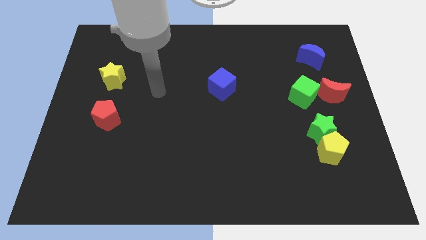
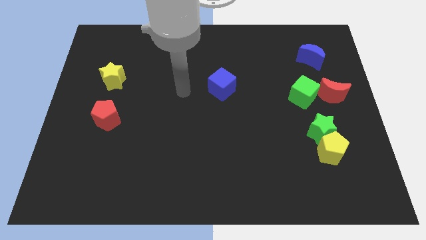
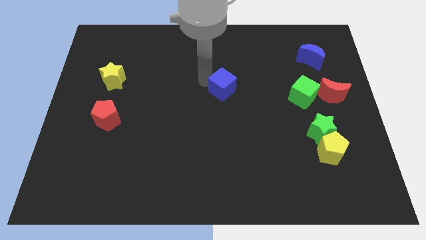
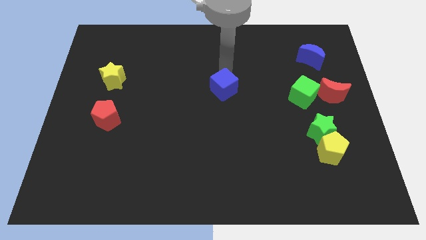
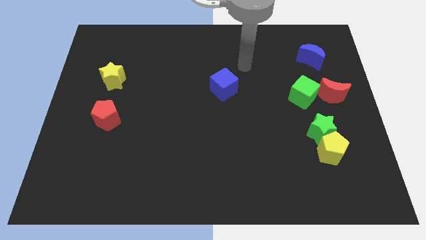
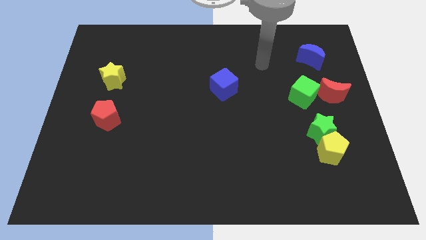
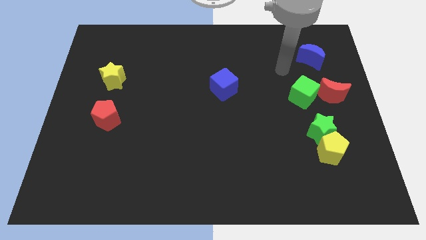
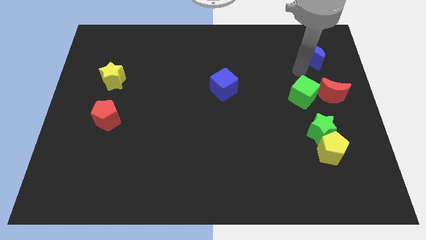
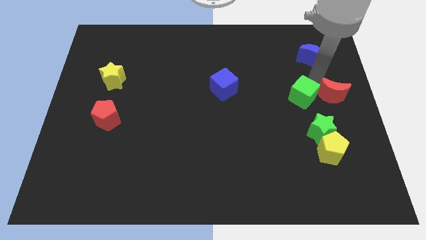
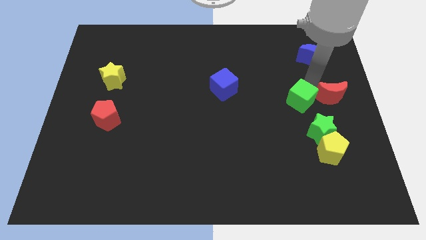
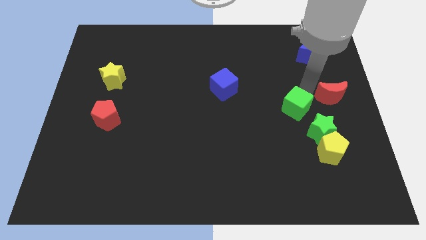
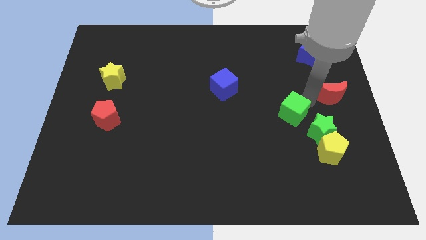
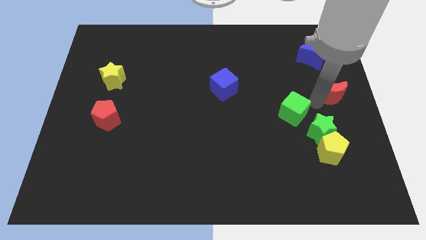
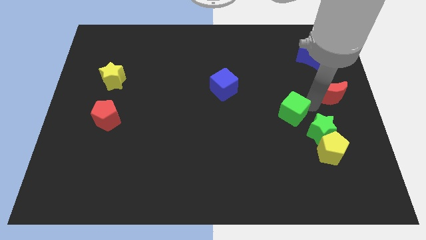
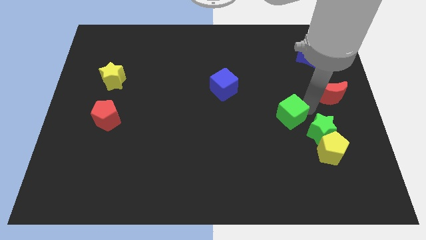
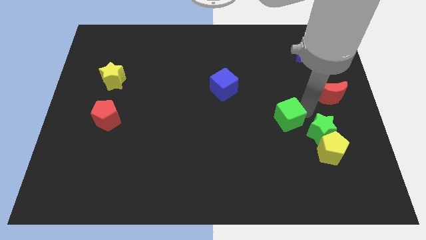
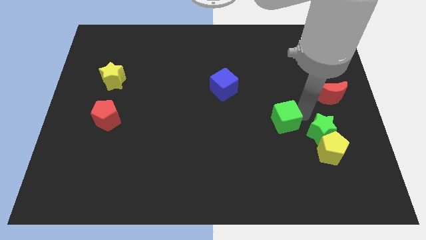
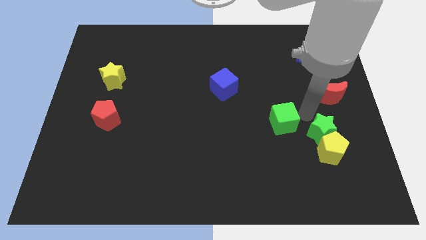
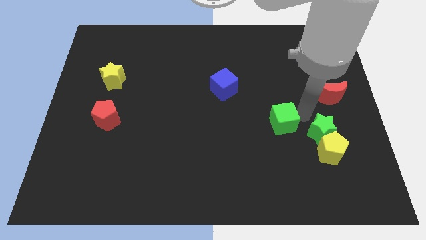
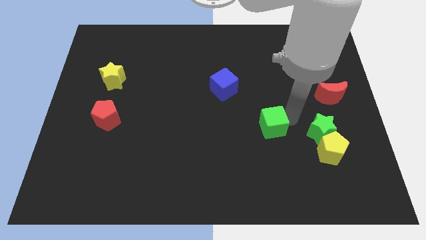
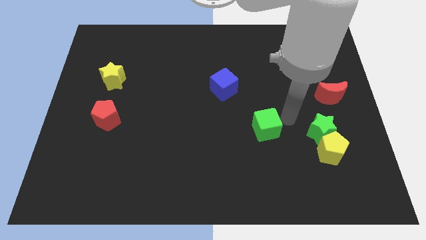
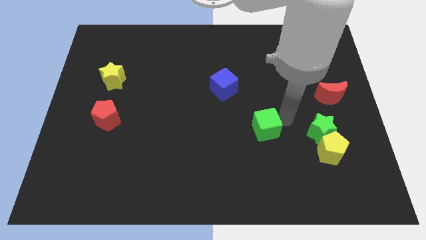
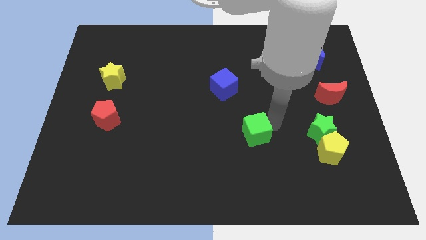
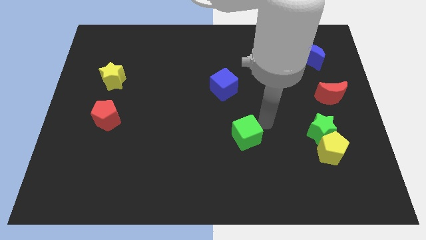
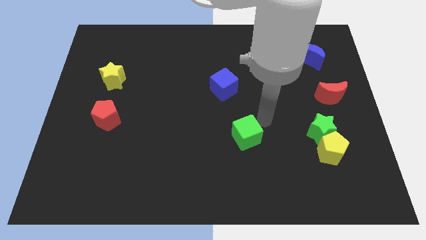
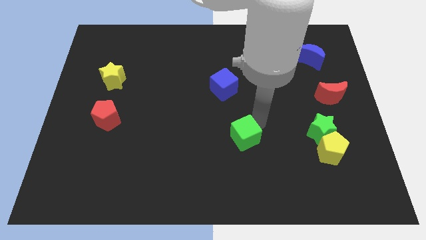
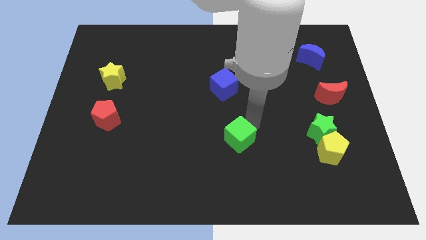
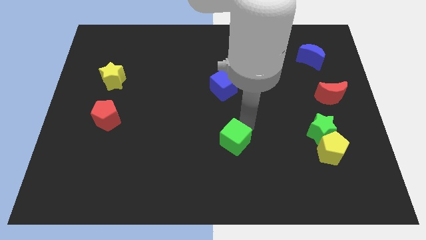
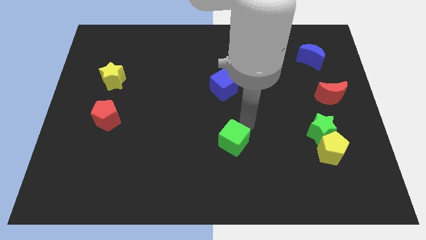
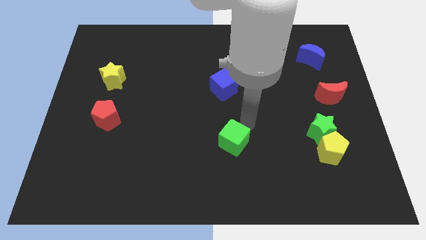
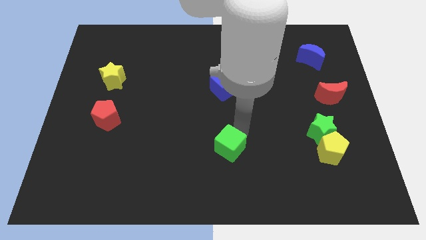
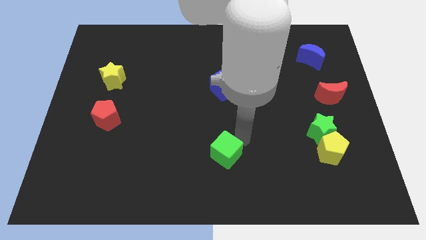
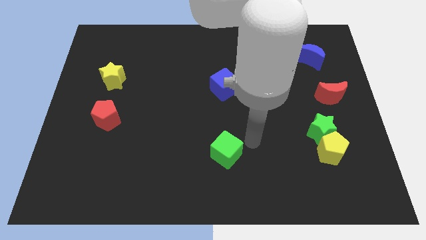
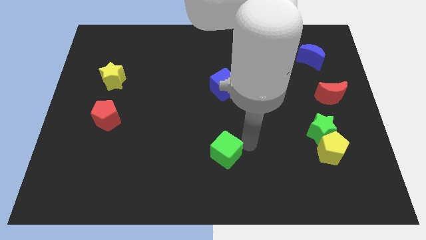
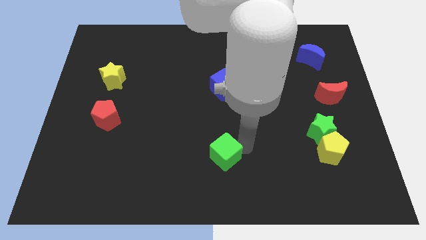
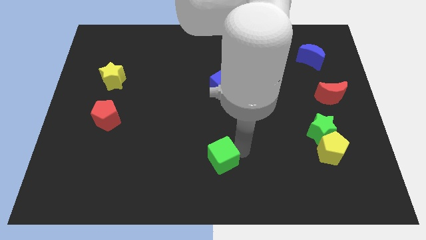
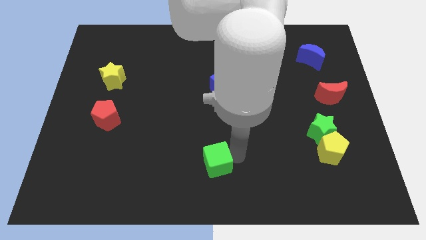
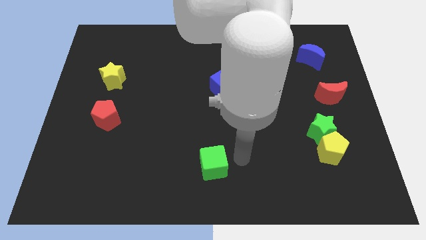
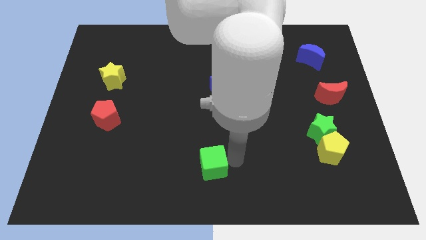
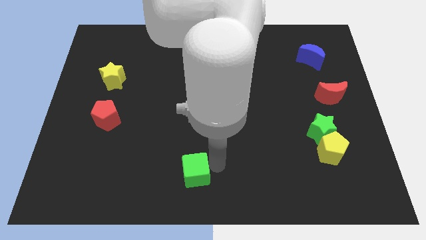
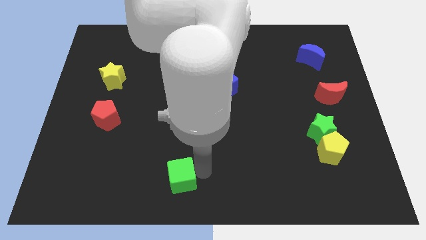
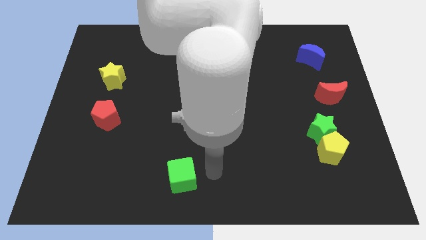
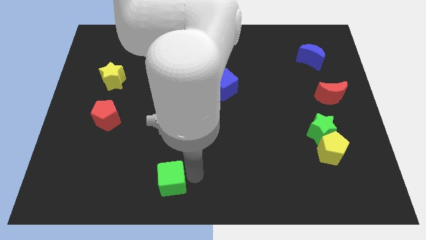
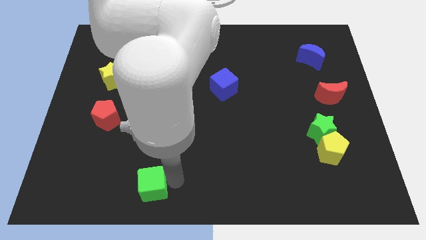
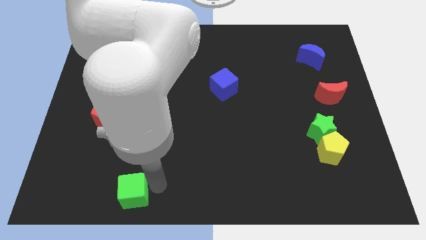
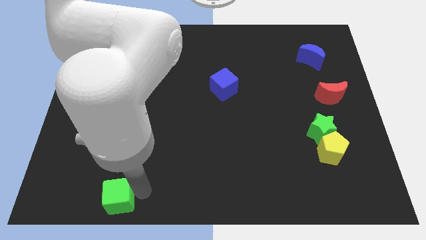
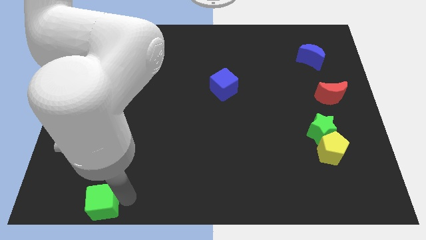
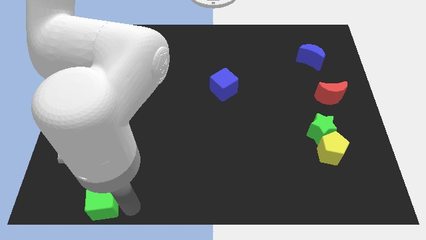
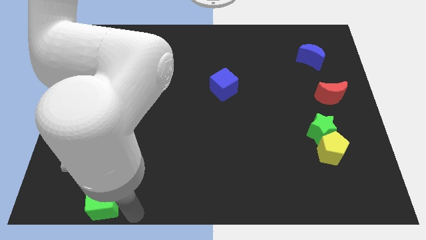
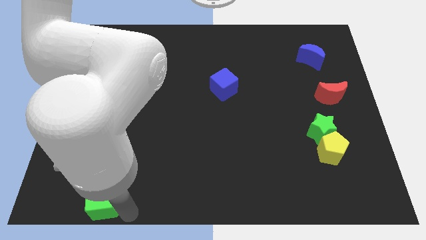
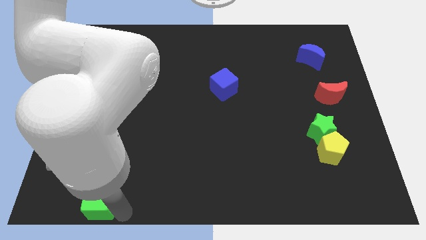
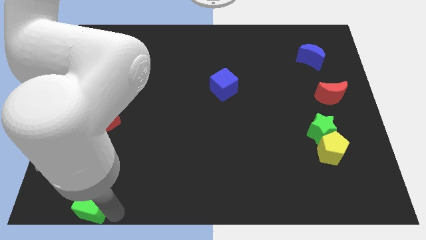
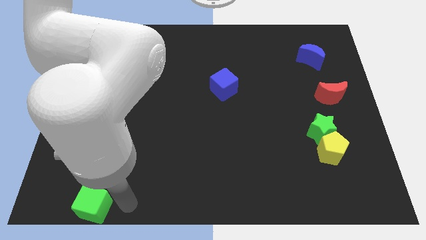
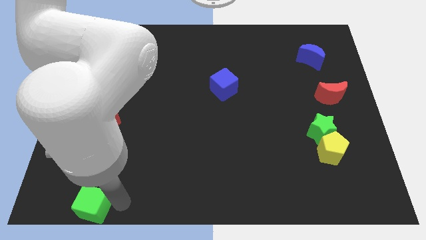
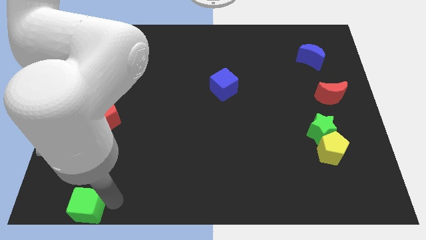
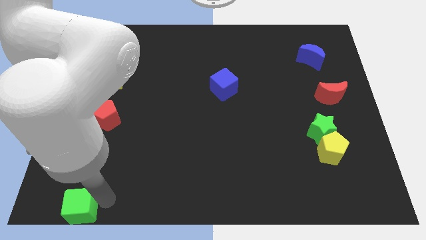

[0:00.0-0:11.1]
push the green cube to the bottom left corner

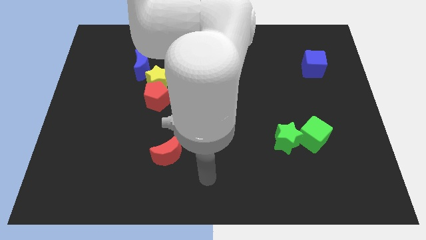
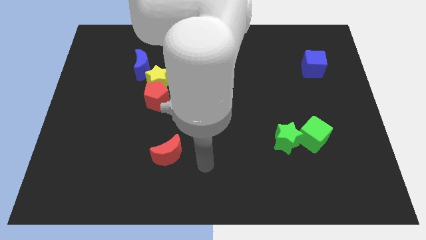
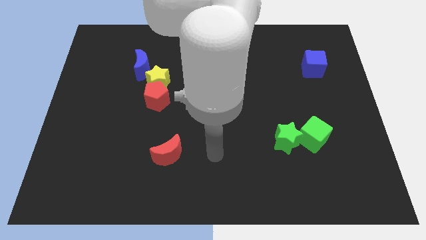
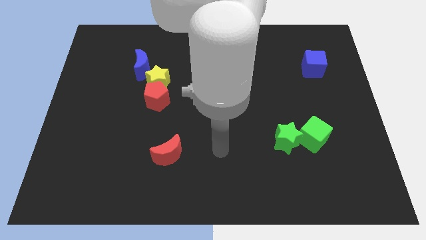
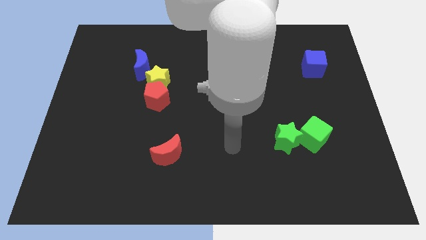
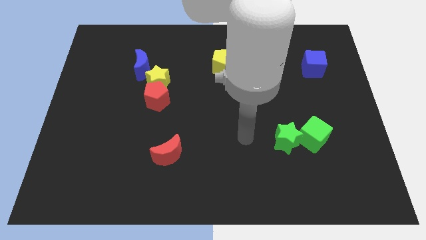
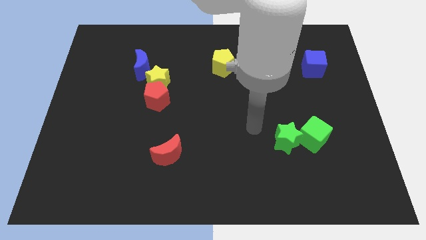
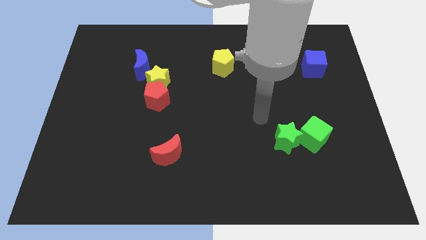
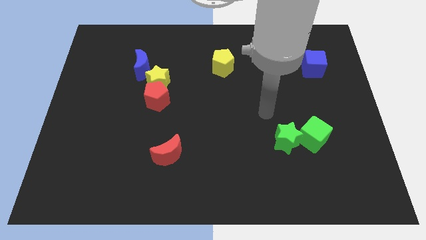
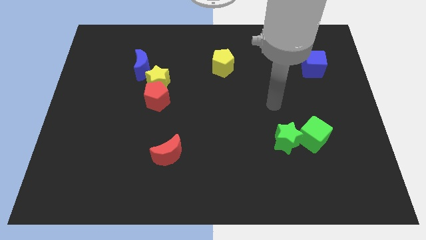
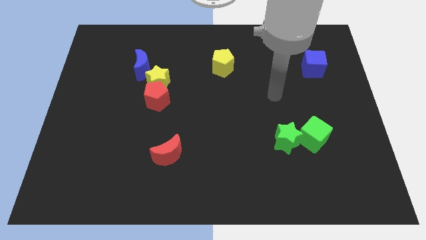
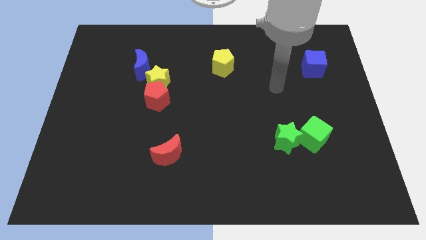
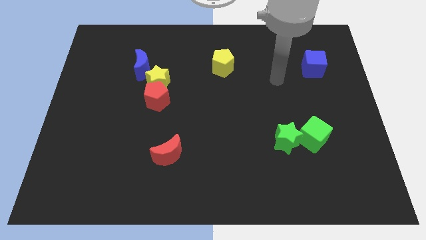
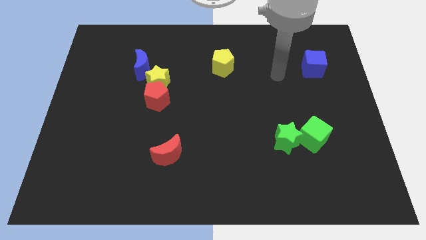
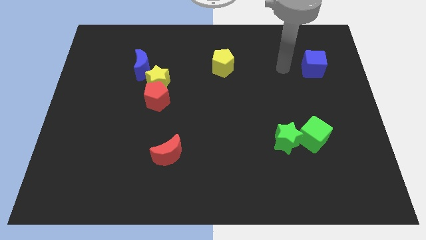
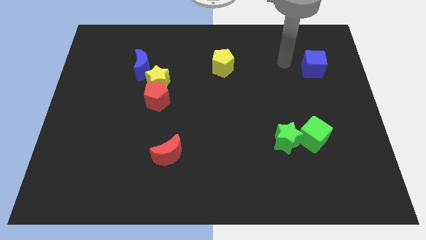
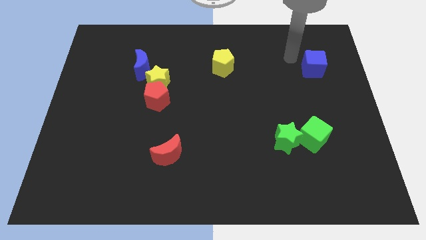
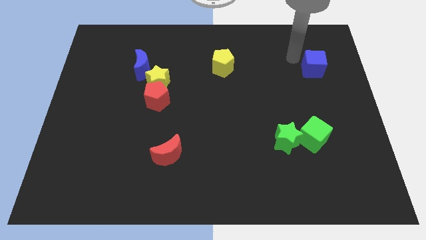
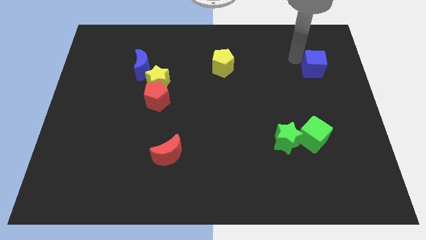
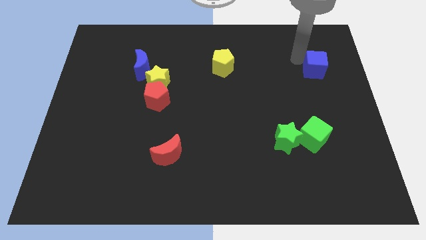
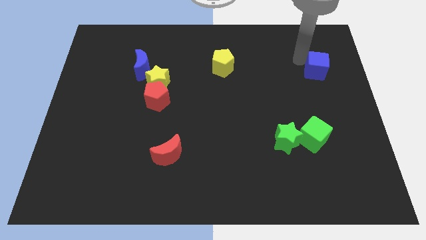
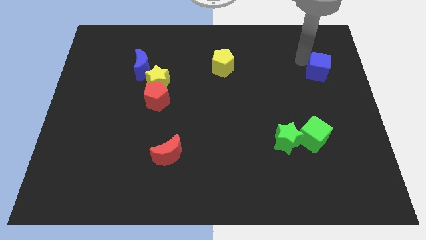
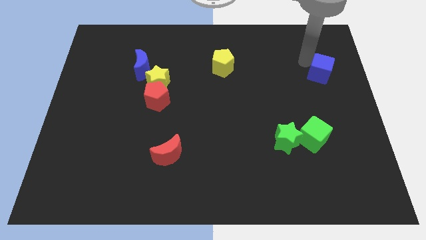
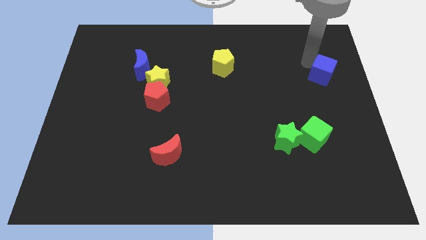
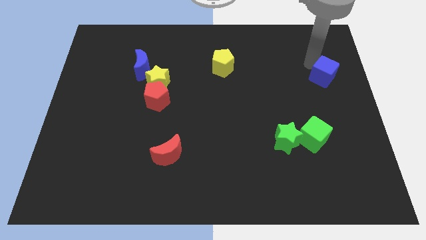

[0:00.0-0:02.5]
move the blue cube to the right side
